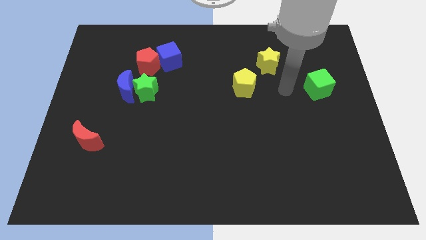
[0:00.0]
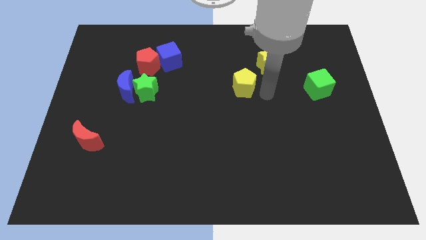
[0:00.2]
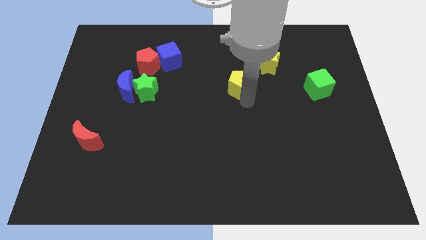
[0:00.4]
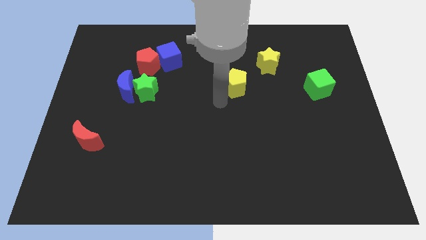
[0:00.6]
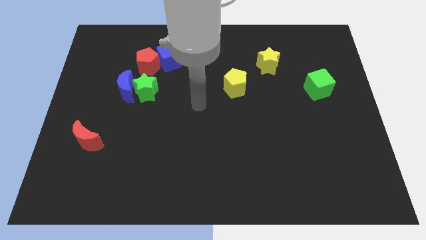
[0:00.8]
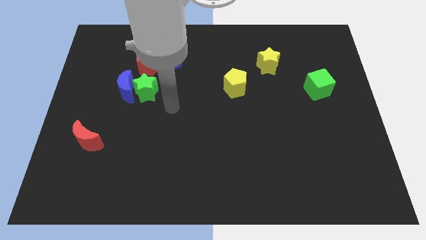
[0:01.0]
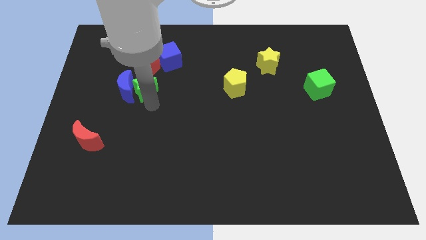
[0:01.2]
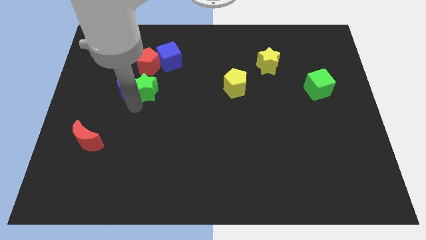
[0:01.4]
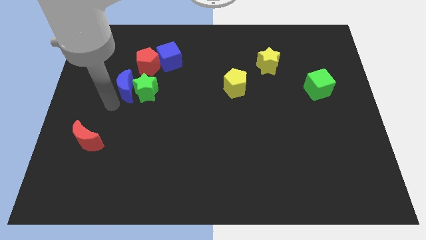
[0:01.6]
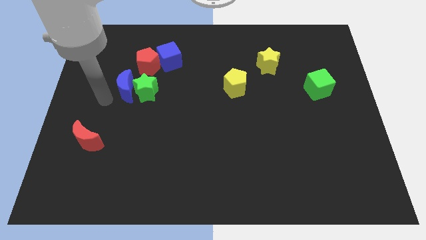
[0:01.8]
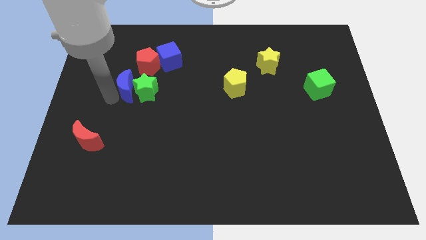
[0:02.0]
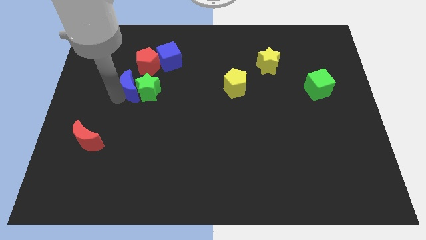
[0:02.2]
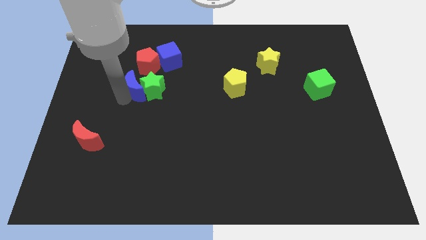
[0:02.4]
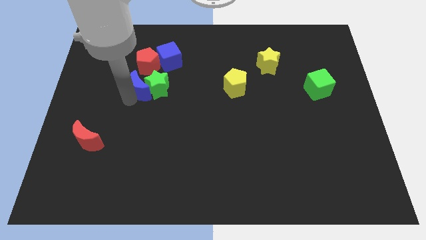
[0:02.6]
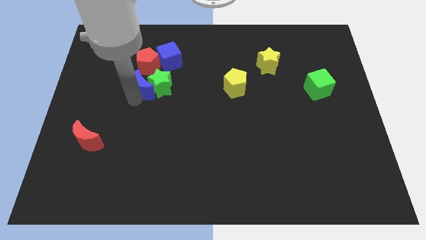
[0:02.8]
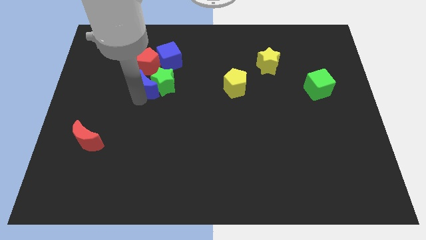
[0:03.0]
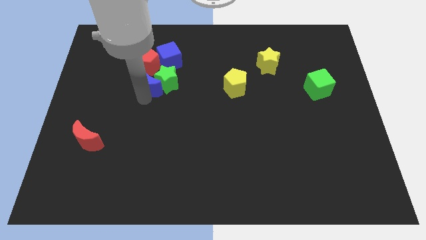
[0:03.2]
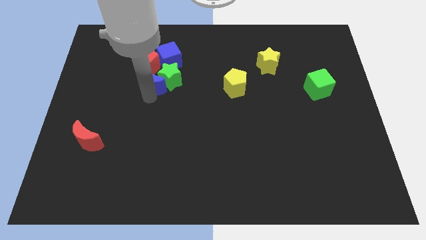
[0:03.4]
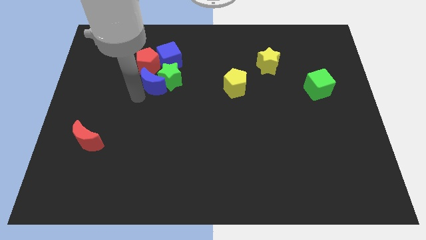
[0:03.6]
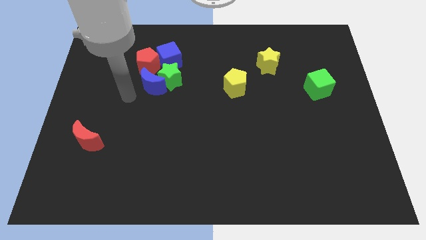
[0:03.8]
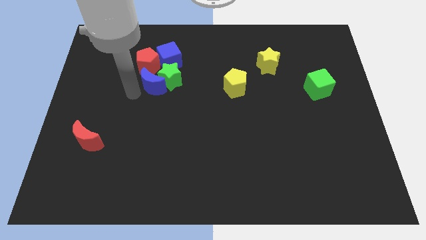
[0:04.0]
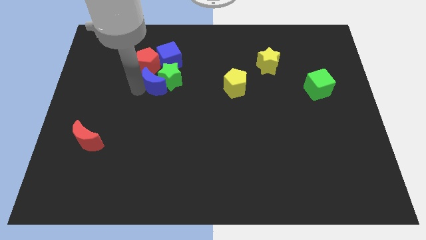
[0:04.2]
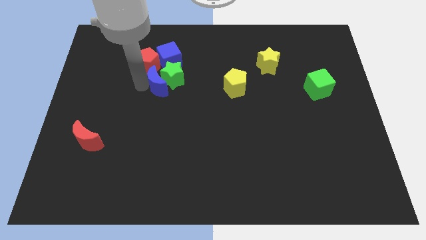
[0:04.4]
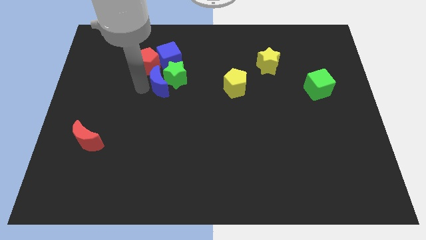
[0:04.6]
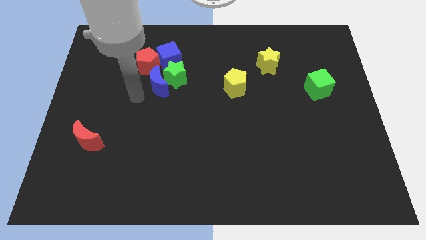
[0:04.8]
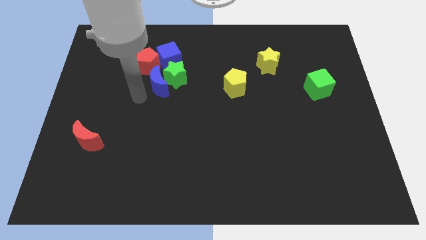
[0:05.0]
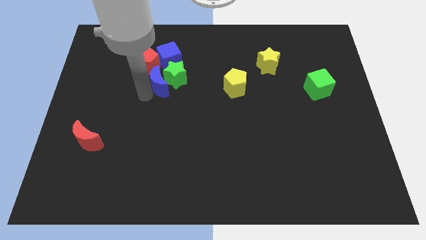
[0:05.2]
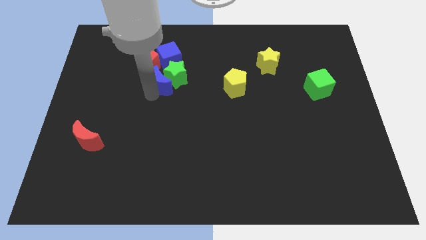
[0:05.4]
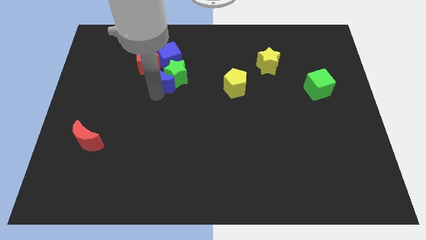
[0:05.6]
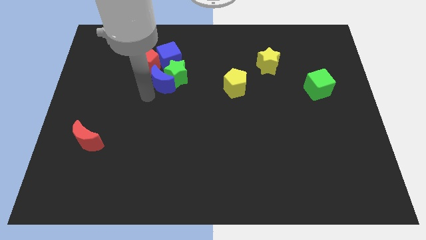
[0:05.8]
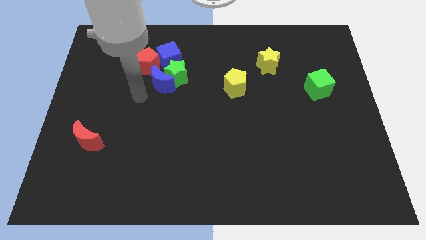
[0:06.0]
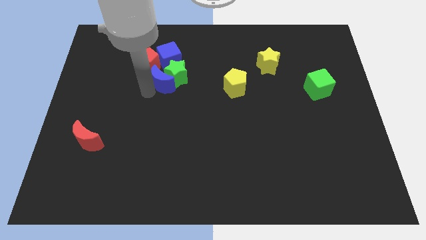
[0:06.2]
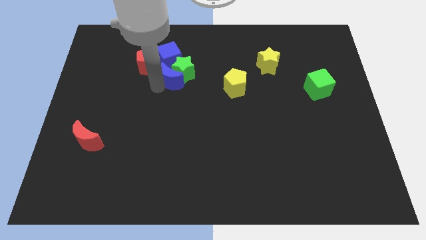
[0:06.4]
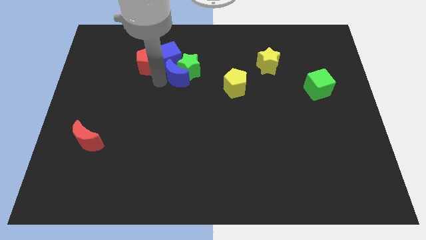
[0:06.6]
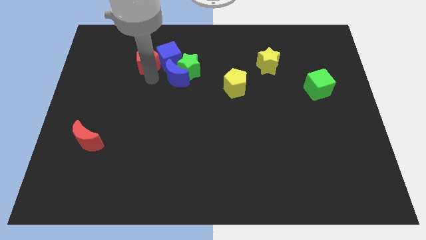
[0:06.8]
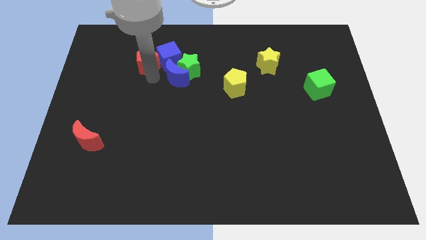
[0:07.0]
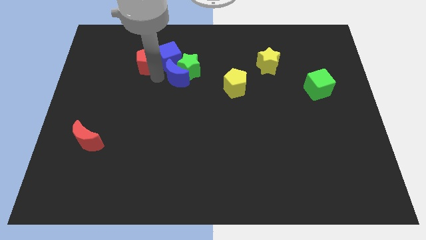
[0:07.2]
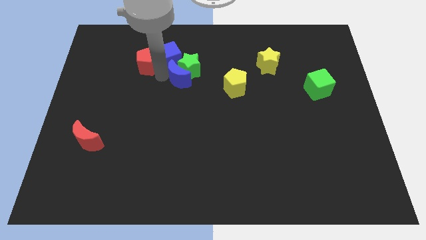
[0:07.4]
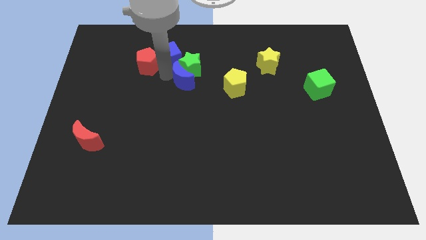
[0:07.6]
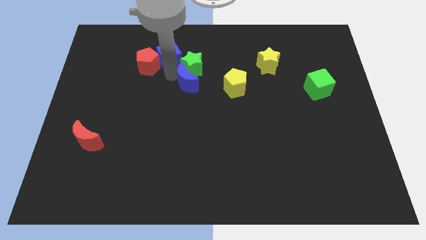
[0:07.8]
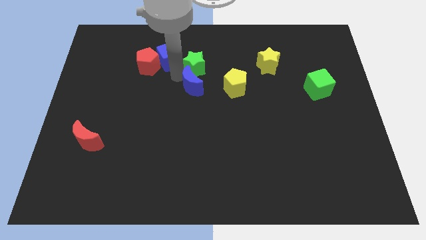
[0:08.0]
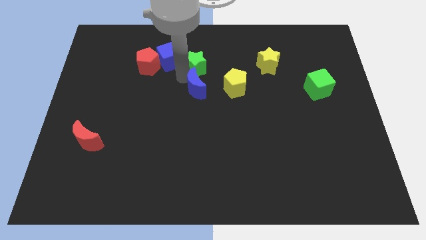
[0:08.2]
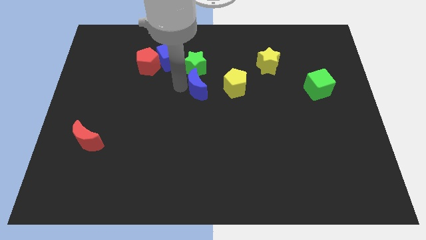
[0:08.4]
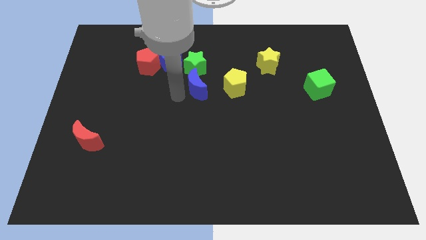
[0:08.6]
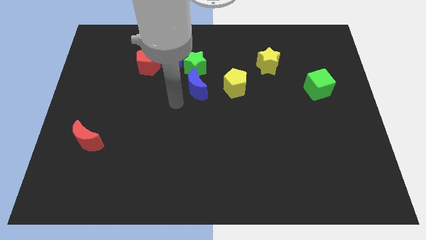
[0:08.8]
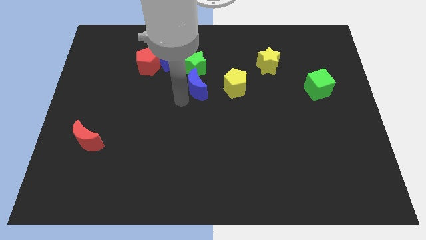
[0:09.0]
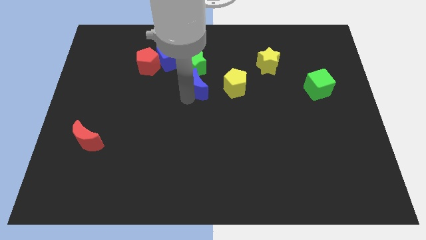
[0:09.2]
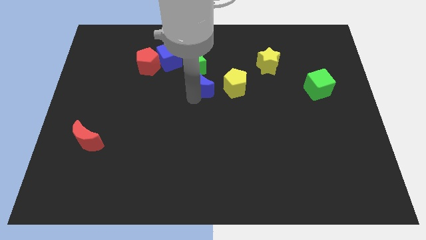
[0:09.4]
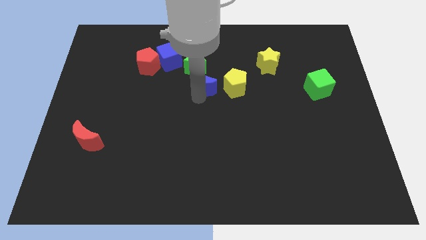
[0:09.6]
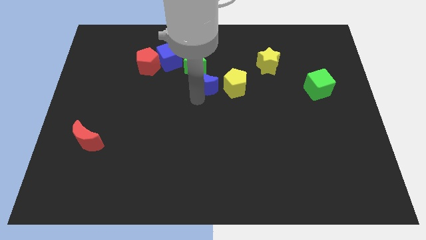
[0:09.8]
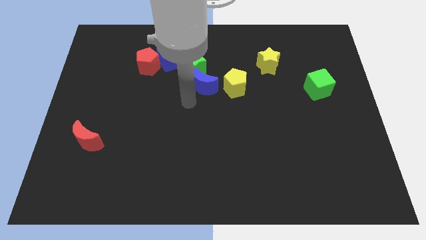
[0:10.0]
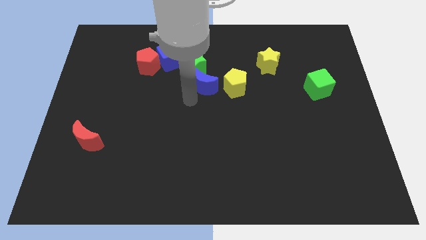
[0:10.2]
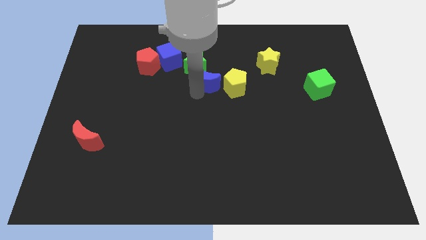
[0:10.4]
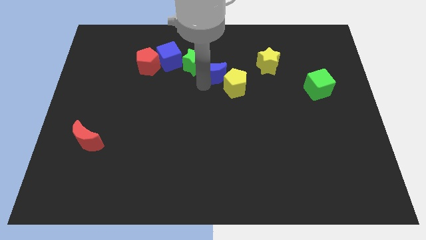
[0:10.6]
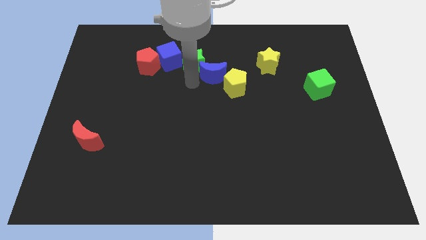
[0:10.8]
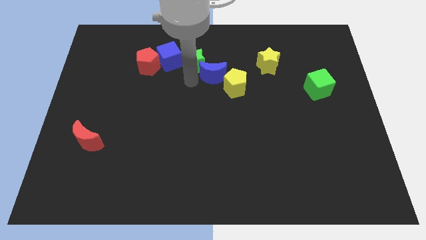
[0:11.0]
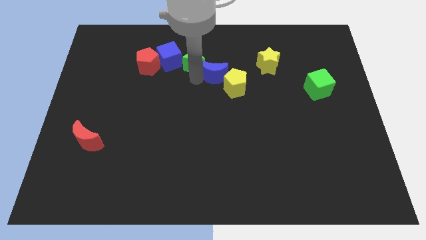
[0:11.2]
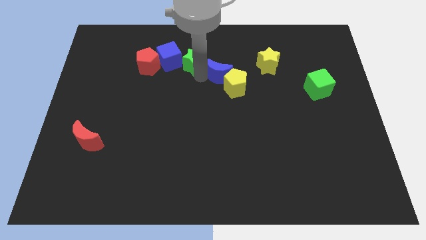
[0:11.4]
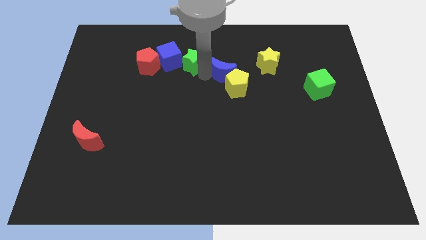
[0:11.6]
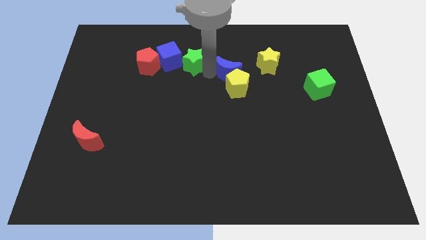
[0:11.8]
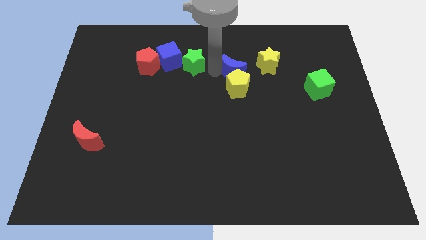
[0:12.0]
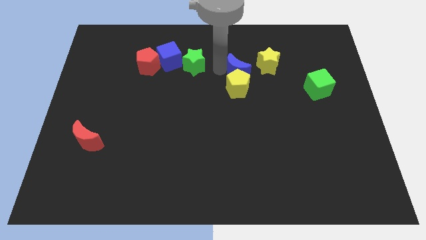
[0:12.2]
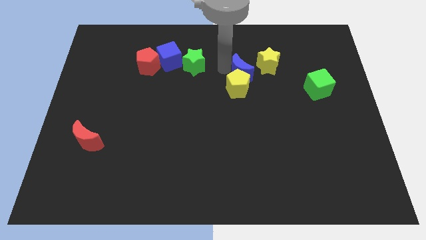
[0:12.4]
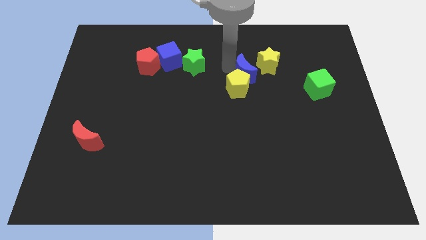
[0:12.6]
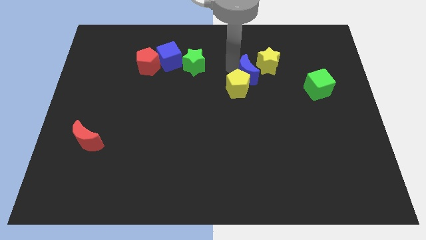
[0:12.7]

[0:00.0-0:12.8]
put the blue moon to the right side of the yellow pentagon
